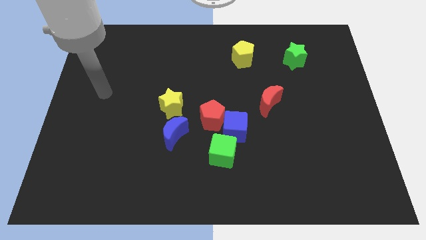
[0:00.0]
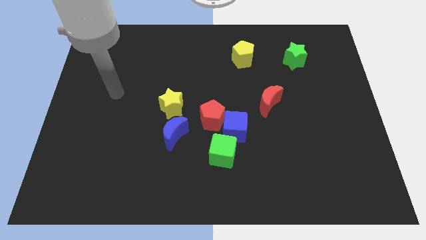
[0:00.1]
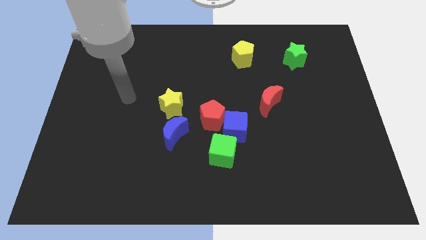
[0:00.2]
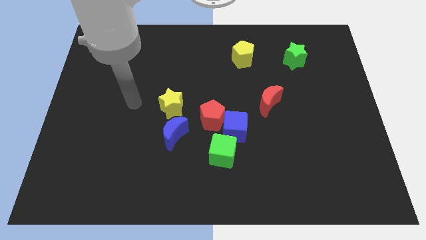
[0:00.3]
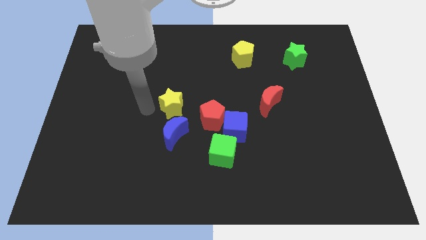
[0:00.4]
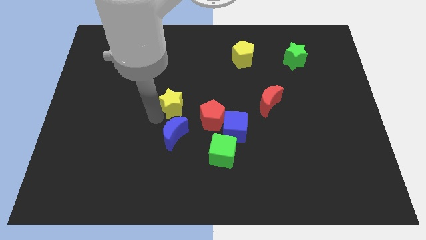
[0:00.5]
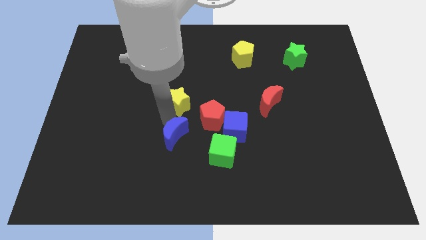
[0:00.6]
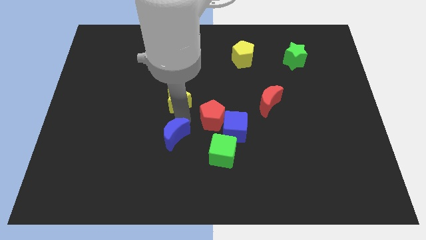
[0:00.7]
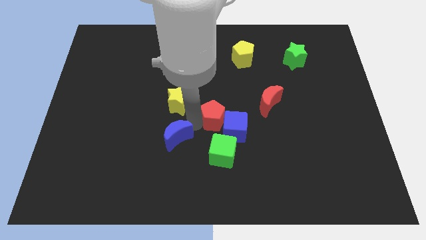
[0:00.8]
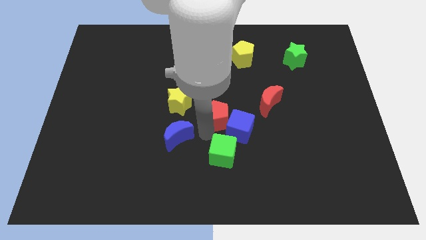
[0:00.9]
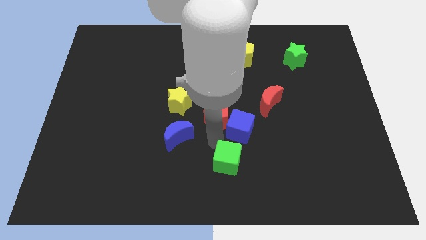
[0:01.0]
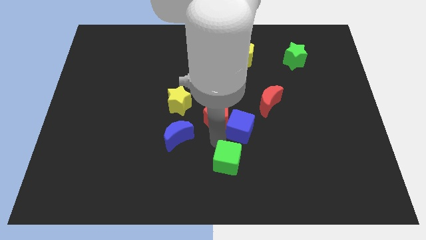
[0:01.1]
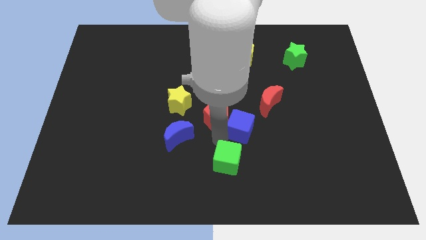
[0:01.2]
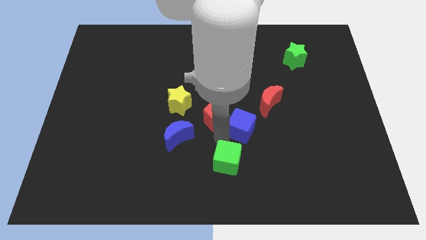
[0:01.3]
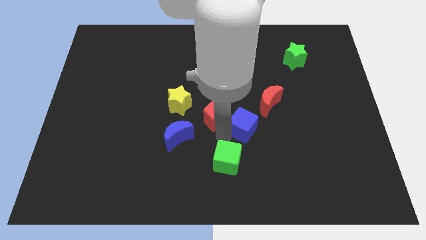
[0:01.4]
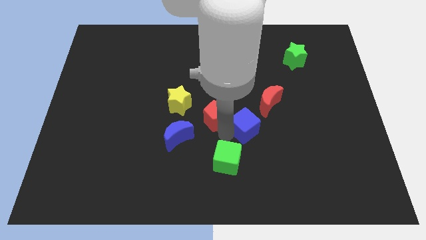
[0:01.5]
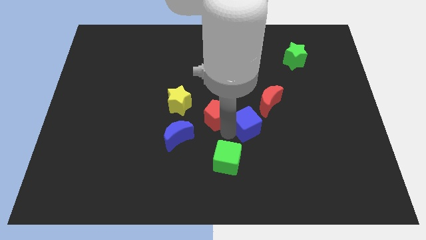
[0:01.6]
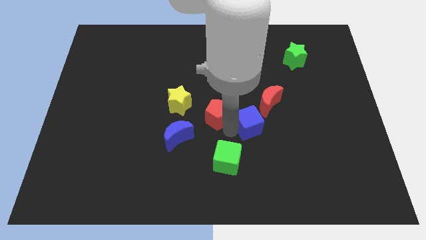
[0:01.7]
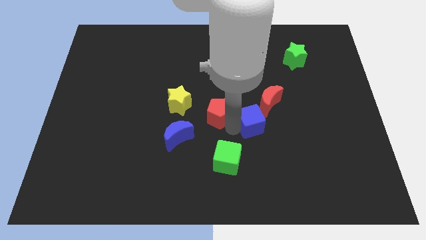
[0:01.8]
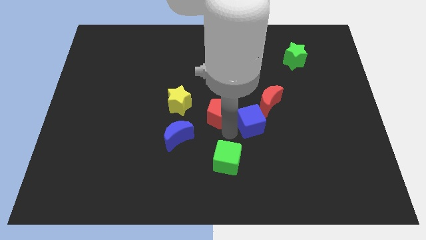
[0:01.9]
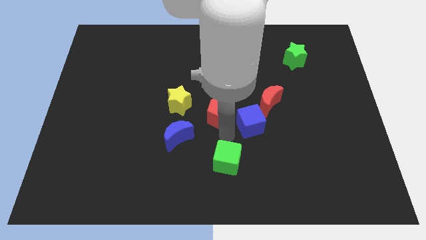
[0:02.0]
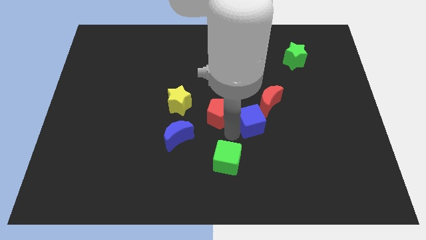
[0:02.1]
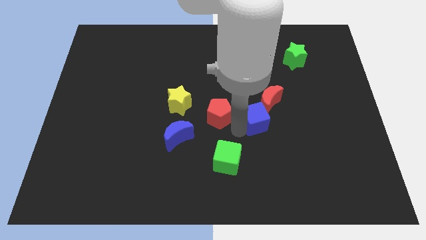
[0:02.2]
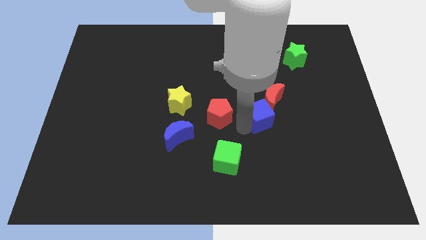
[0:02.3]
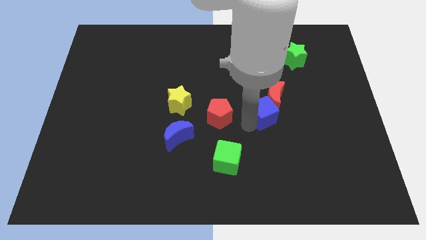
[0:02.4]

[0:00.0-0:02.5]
separate the blue cube from the red pentagon and green cube

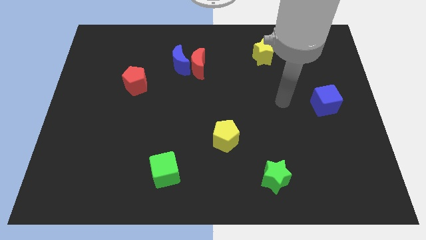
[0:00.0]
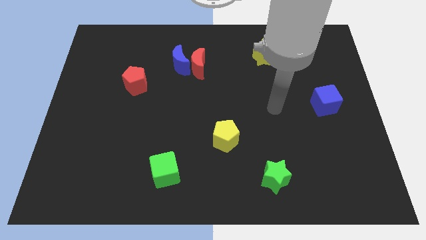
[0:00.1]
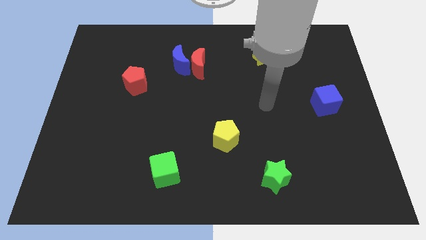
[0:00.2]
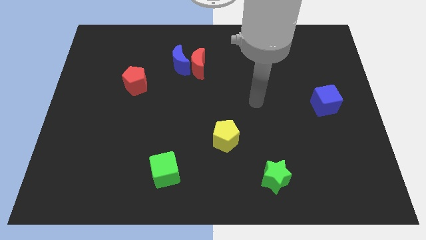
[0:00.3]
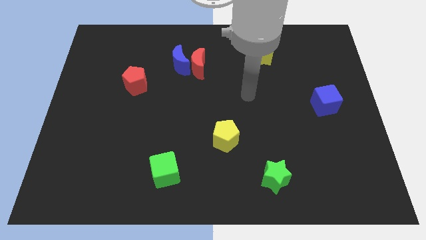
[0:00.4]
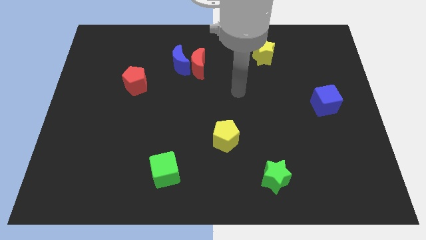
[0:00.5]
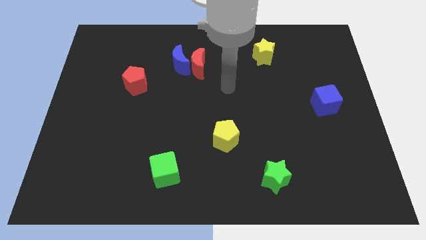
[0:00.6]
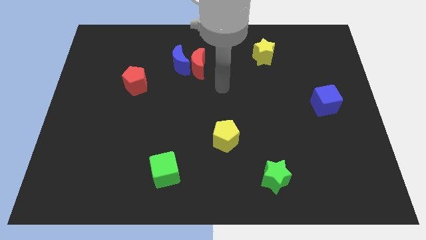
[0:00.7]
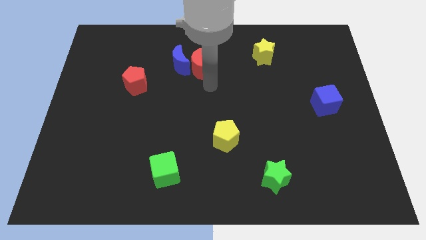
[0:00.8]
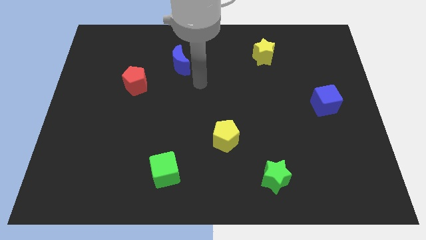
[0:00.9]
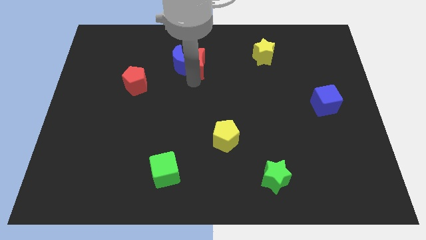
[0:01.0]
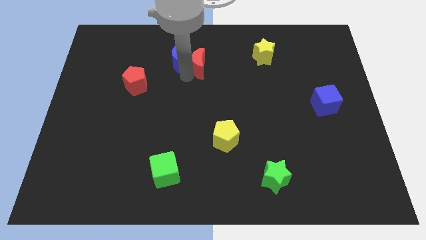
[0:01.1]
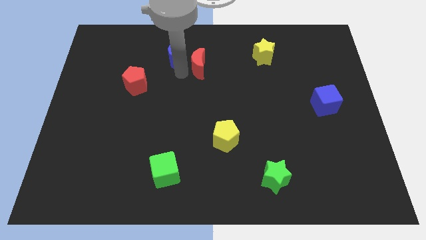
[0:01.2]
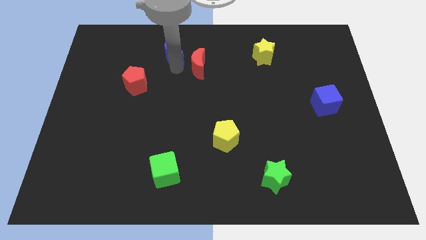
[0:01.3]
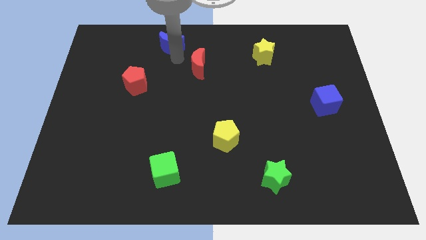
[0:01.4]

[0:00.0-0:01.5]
pull the red moon apart from the blue moon

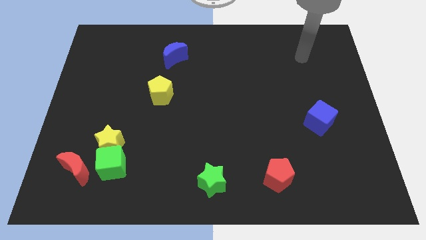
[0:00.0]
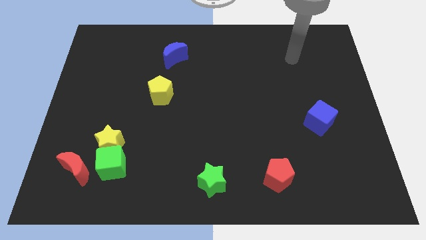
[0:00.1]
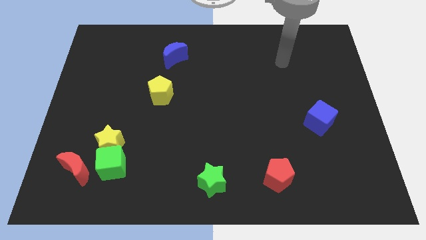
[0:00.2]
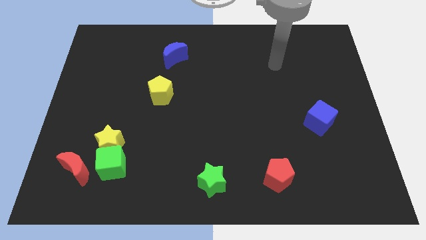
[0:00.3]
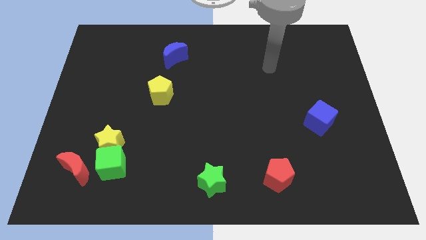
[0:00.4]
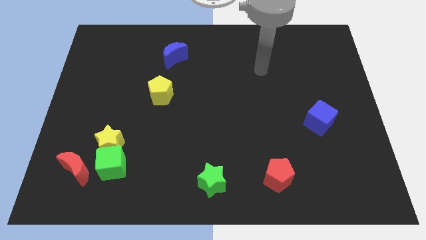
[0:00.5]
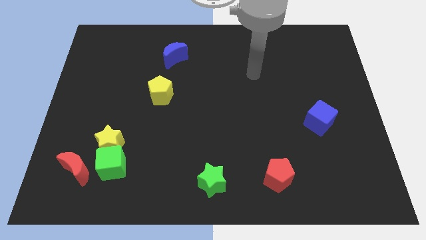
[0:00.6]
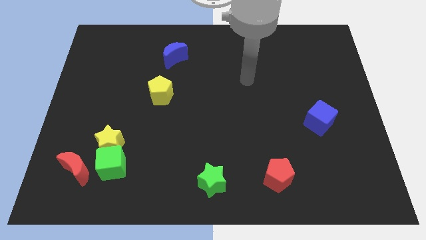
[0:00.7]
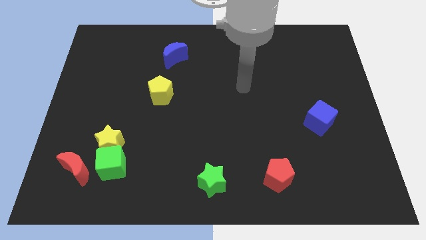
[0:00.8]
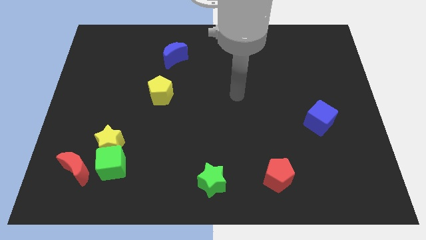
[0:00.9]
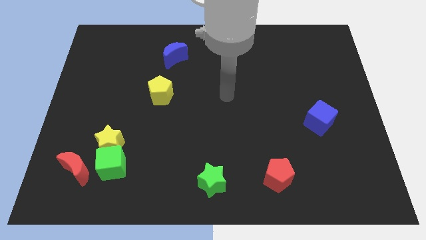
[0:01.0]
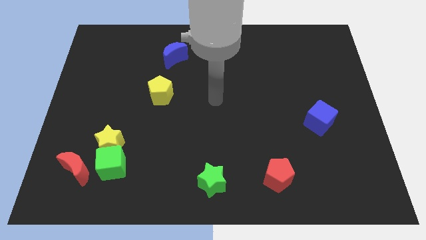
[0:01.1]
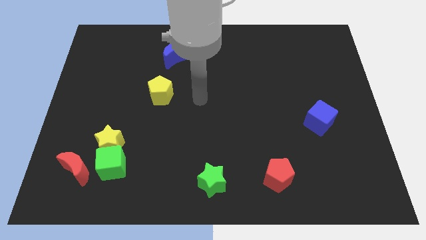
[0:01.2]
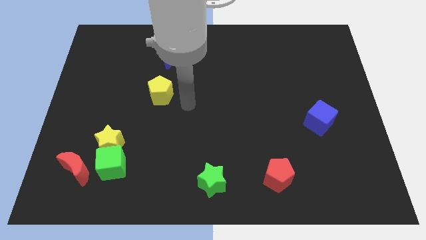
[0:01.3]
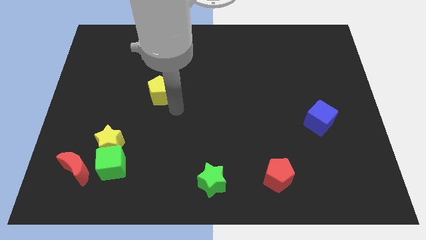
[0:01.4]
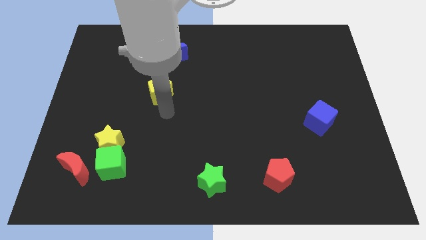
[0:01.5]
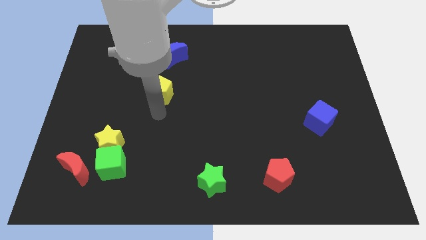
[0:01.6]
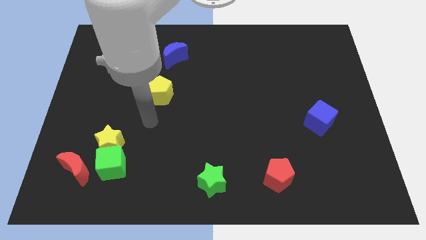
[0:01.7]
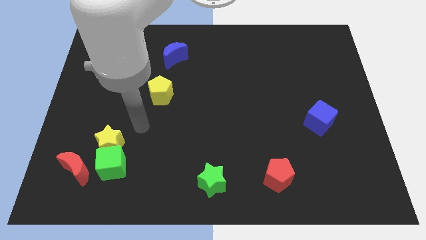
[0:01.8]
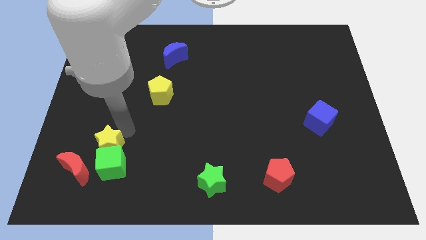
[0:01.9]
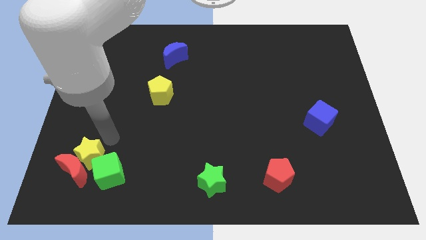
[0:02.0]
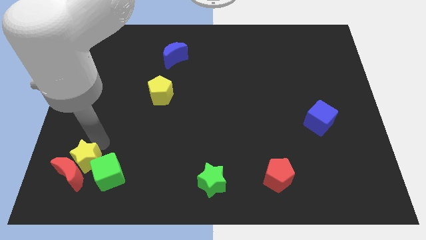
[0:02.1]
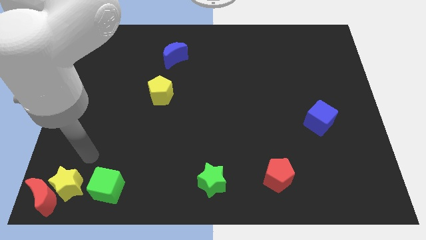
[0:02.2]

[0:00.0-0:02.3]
move the green cube away from the yellow star and red moon

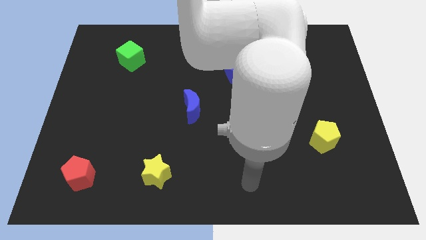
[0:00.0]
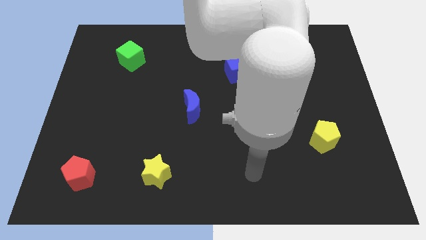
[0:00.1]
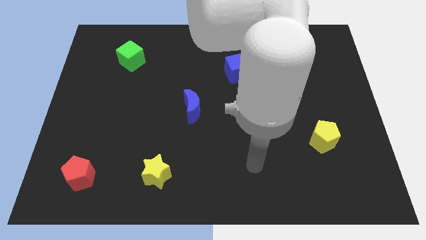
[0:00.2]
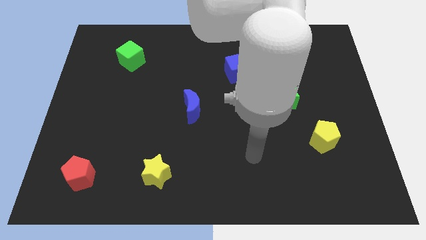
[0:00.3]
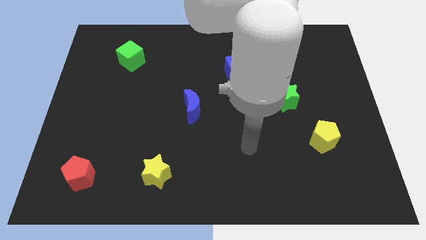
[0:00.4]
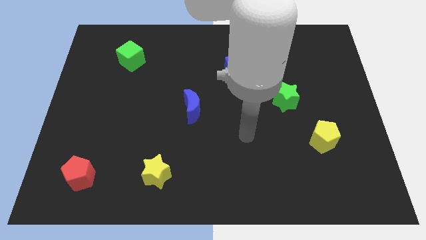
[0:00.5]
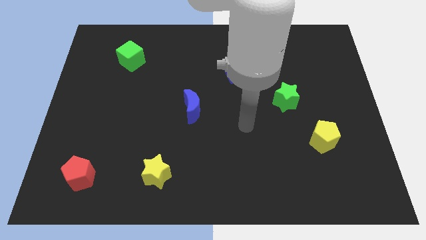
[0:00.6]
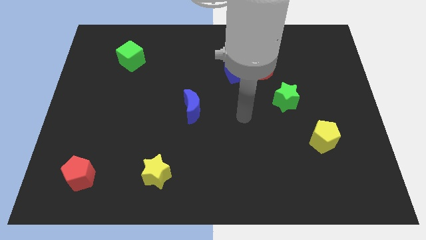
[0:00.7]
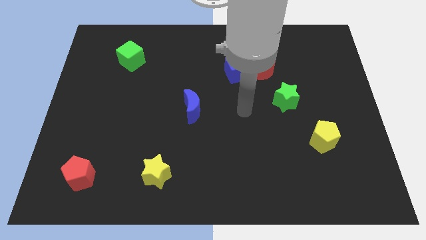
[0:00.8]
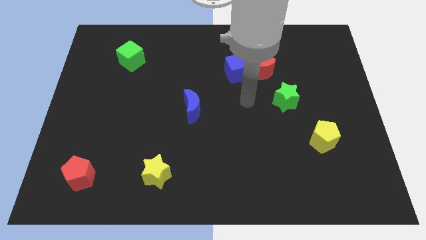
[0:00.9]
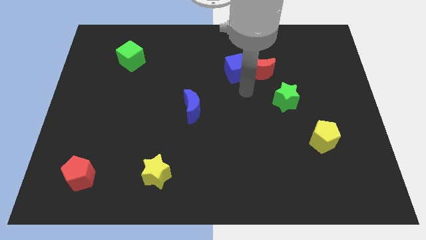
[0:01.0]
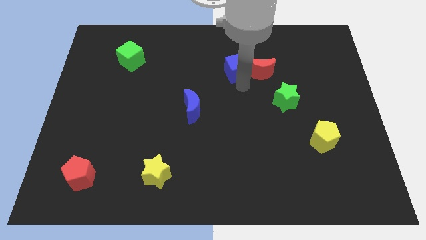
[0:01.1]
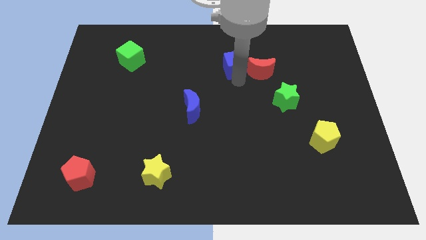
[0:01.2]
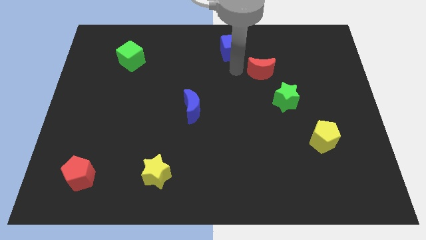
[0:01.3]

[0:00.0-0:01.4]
move the red moon away from the blue cube

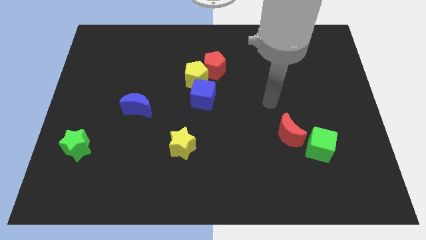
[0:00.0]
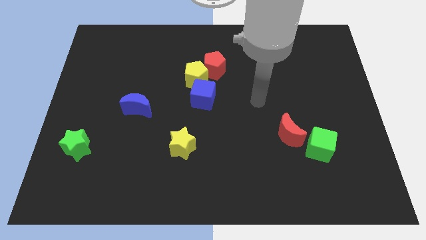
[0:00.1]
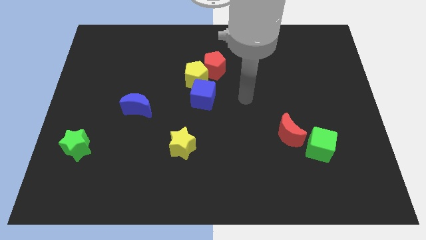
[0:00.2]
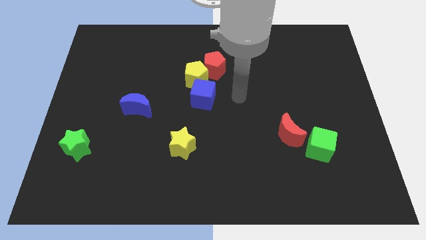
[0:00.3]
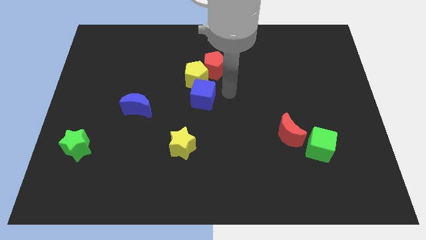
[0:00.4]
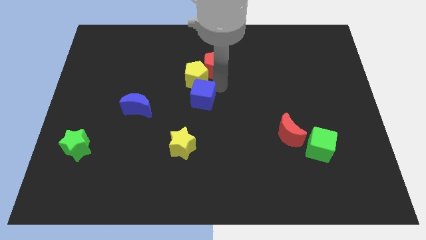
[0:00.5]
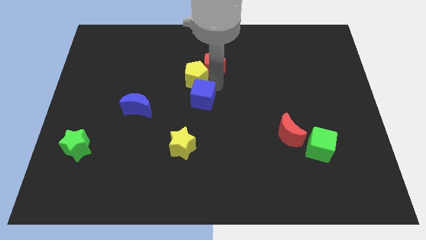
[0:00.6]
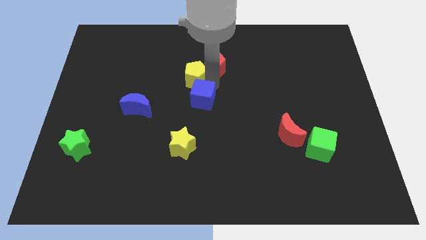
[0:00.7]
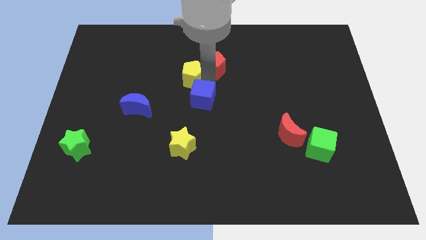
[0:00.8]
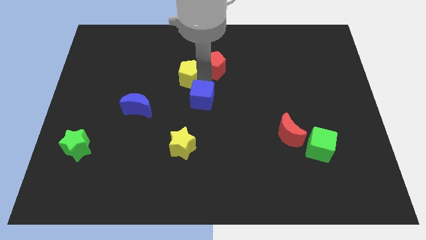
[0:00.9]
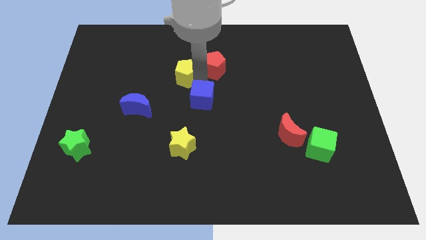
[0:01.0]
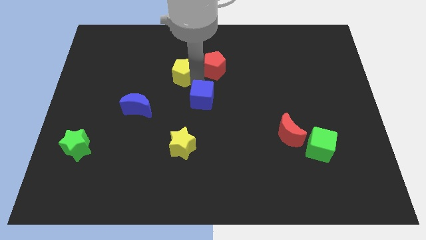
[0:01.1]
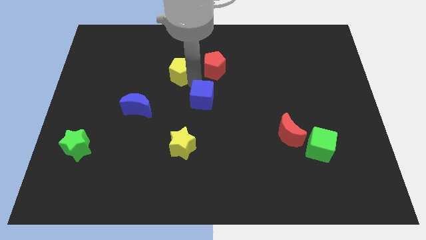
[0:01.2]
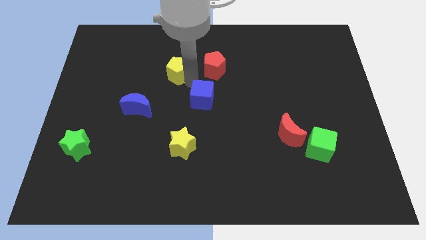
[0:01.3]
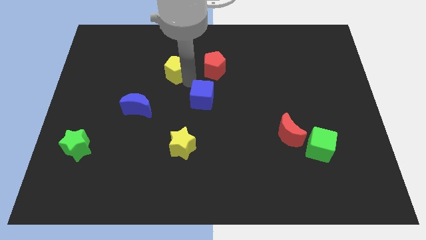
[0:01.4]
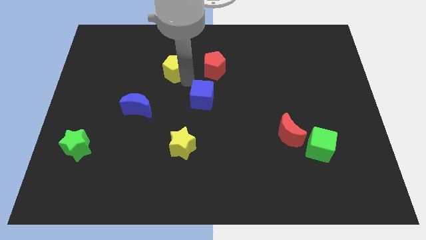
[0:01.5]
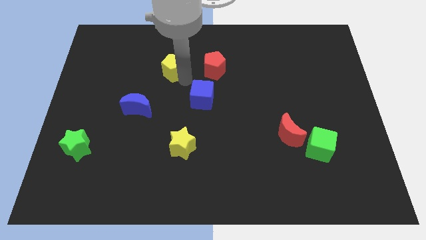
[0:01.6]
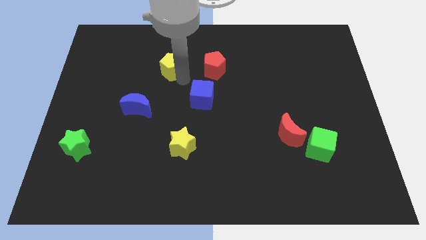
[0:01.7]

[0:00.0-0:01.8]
move the yellow pentagon away from the red pentagon and blue cube
